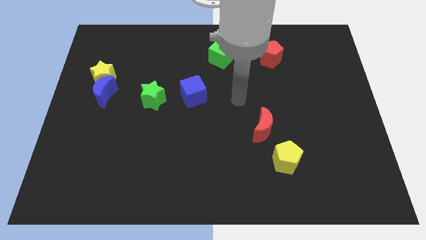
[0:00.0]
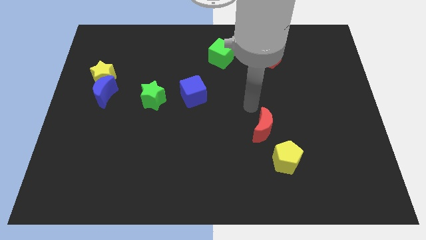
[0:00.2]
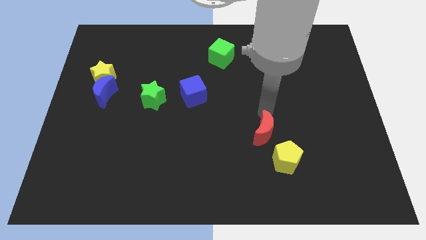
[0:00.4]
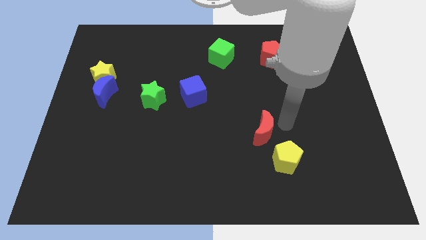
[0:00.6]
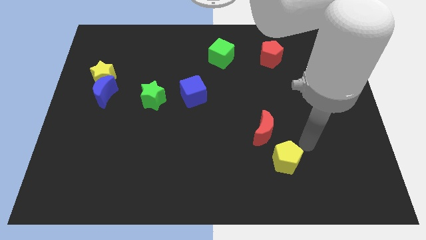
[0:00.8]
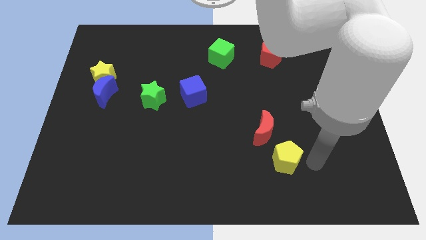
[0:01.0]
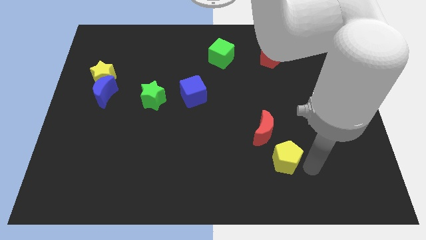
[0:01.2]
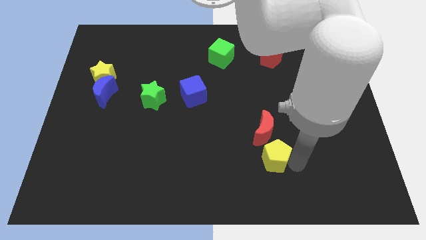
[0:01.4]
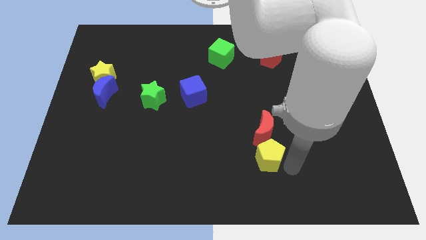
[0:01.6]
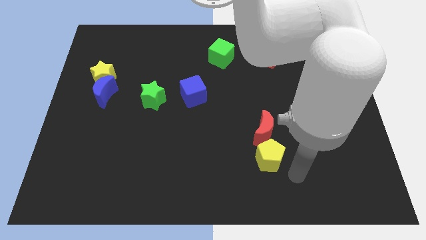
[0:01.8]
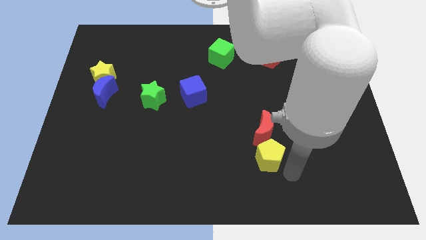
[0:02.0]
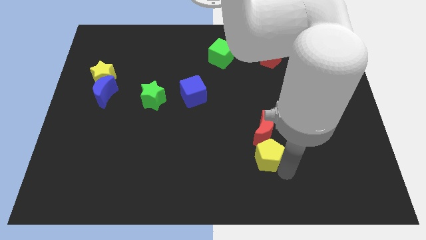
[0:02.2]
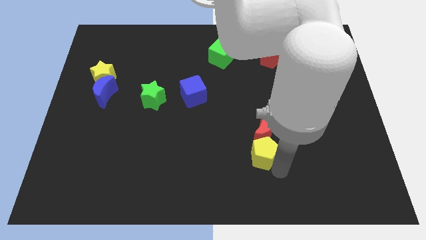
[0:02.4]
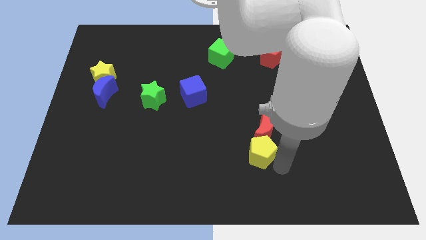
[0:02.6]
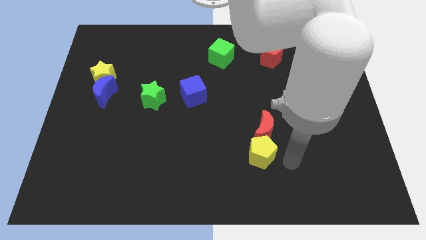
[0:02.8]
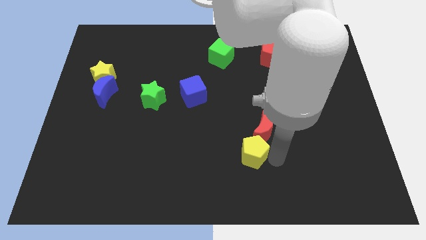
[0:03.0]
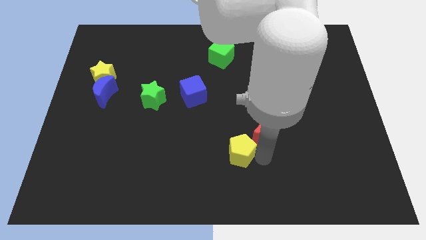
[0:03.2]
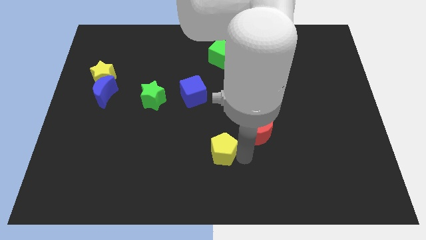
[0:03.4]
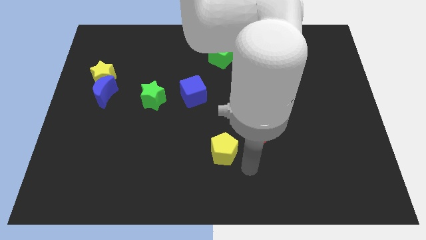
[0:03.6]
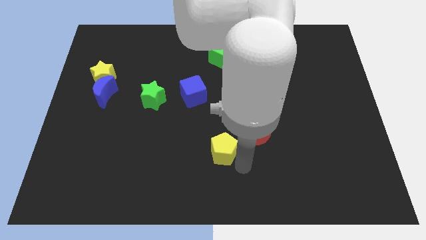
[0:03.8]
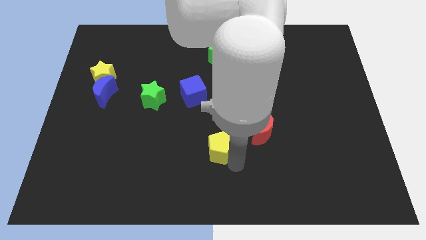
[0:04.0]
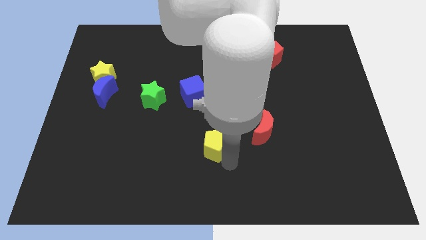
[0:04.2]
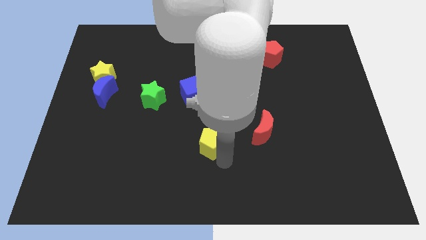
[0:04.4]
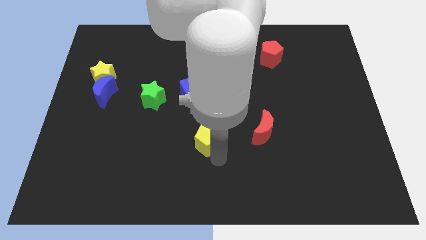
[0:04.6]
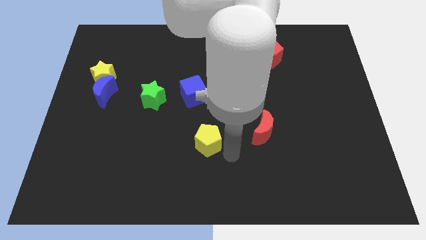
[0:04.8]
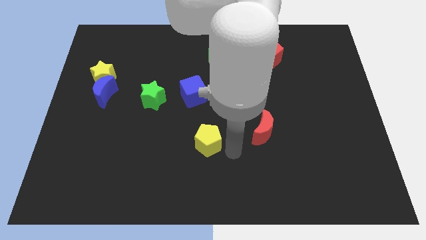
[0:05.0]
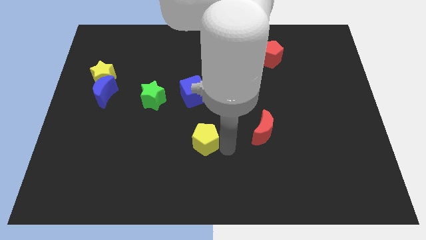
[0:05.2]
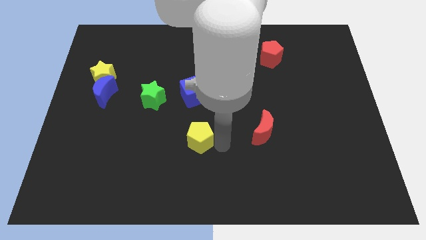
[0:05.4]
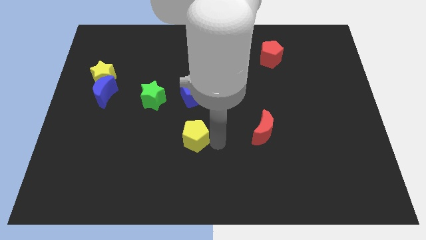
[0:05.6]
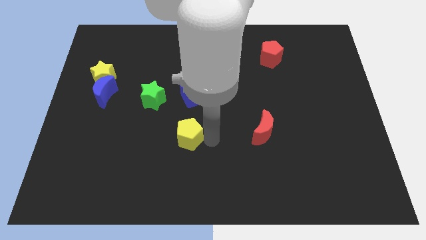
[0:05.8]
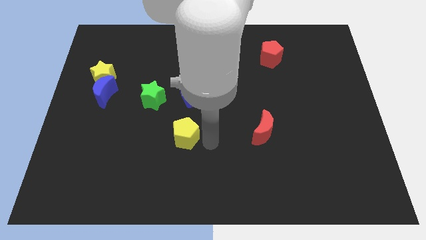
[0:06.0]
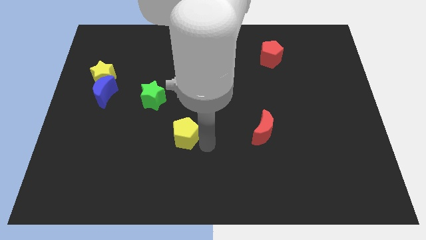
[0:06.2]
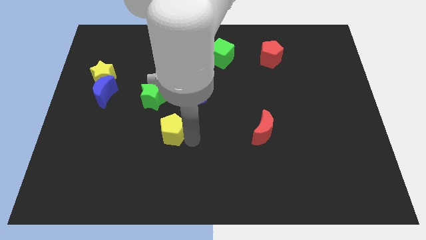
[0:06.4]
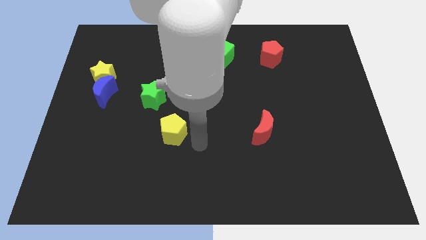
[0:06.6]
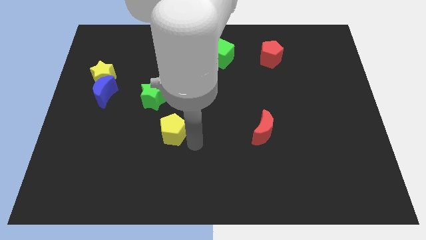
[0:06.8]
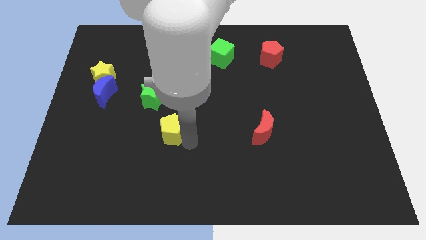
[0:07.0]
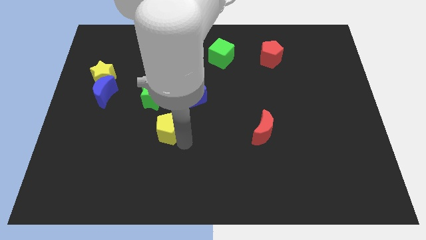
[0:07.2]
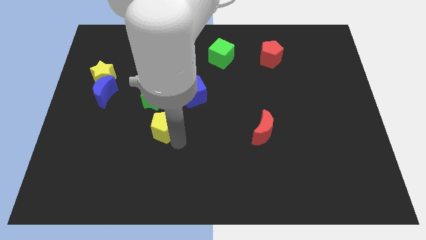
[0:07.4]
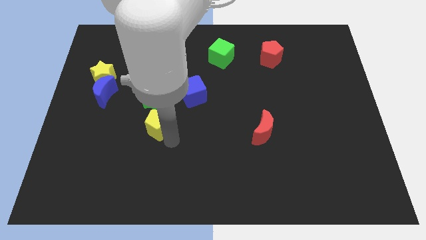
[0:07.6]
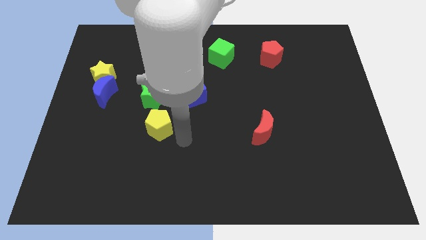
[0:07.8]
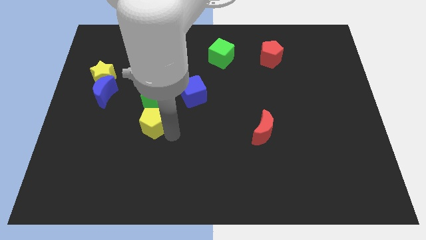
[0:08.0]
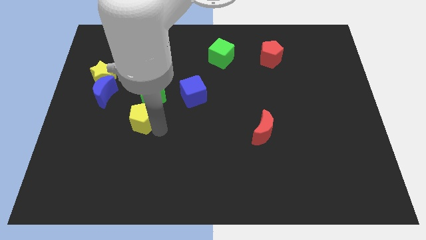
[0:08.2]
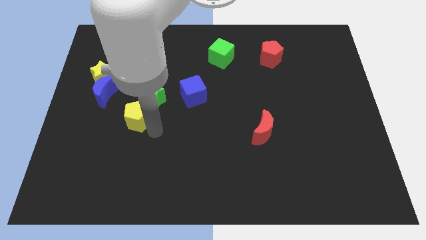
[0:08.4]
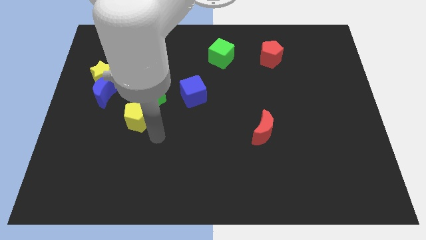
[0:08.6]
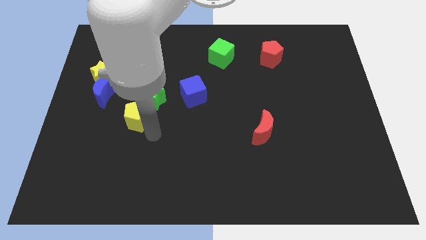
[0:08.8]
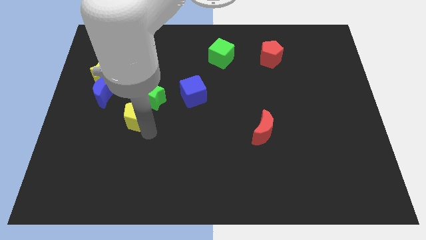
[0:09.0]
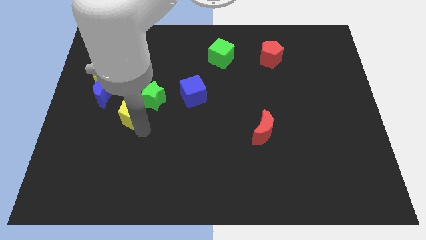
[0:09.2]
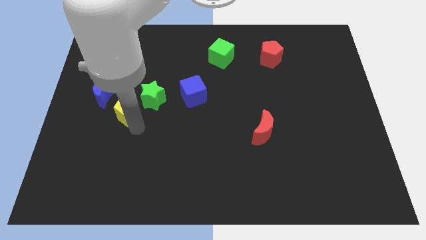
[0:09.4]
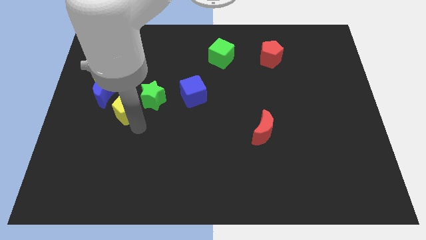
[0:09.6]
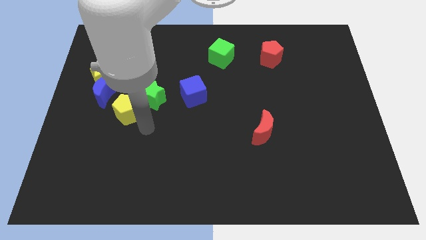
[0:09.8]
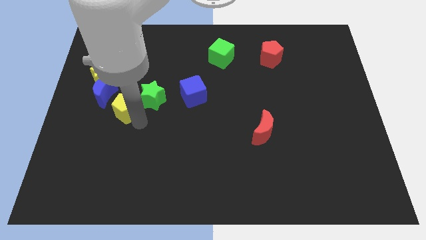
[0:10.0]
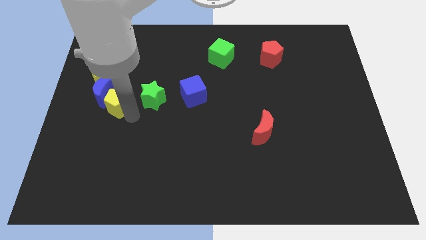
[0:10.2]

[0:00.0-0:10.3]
put the yellow pentagon close to the blue moon

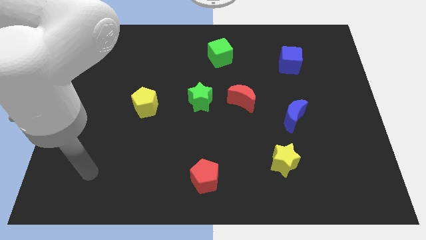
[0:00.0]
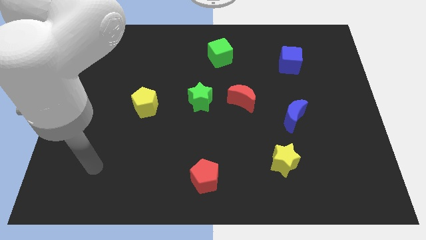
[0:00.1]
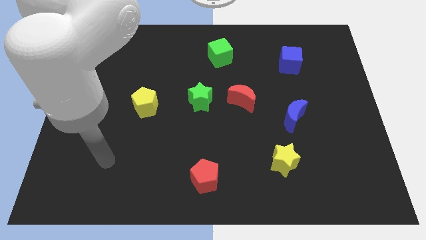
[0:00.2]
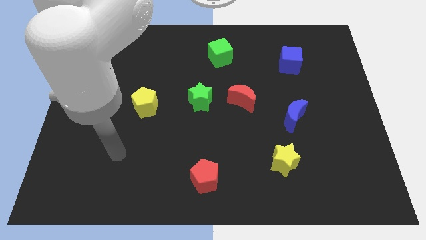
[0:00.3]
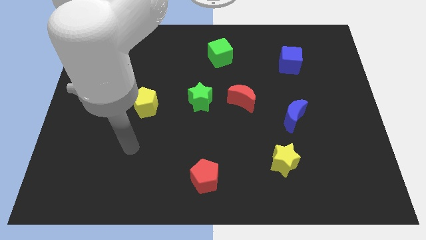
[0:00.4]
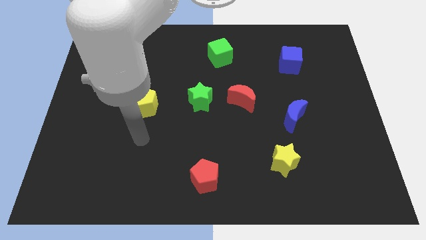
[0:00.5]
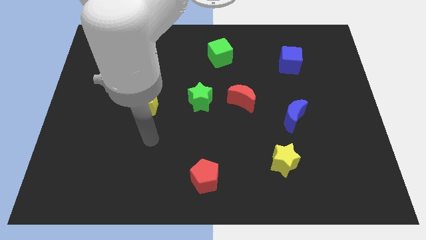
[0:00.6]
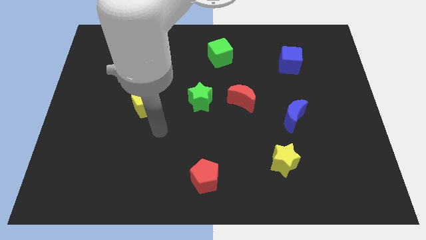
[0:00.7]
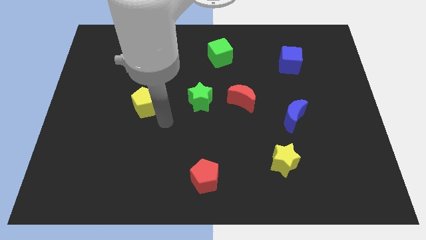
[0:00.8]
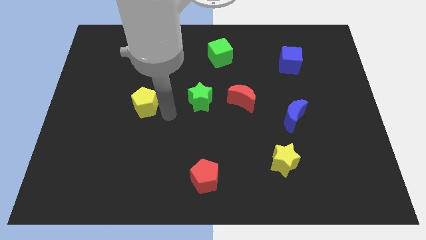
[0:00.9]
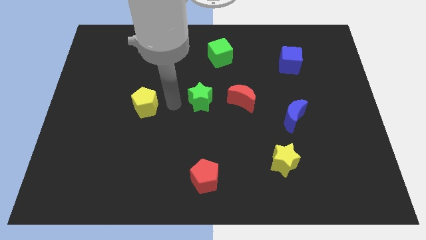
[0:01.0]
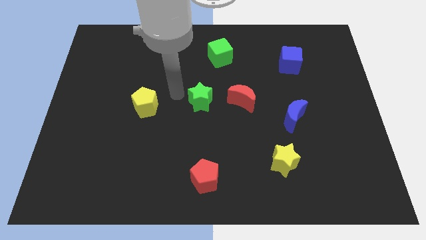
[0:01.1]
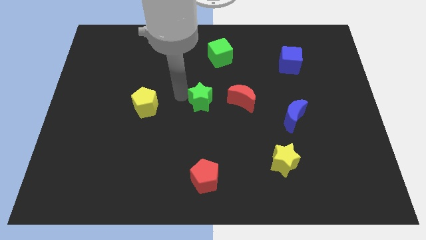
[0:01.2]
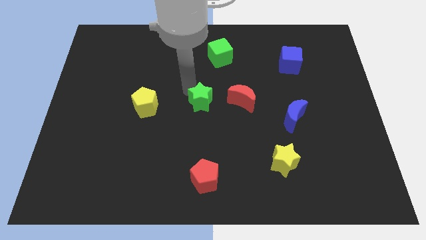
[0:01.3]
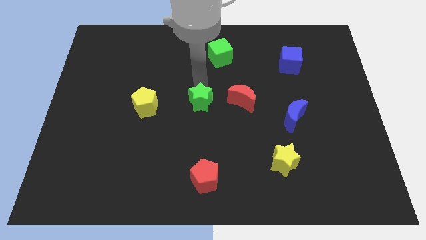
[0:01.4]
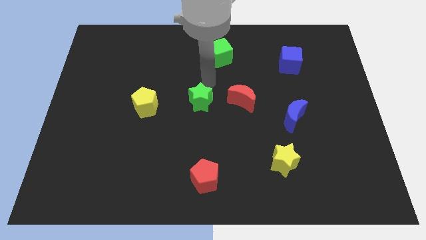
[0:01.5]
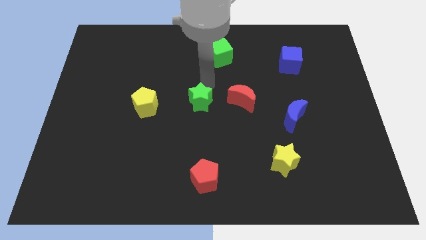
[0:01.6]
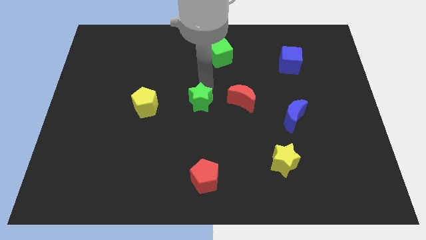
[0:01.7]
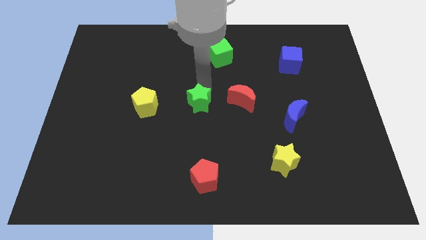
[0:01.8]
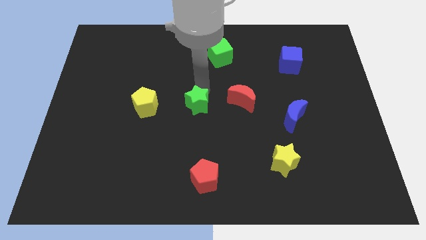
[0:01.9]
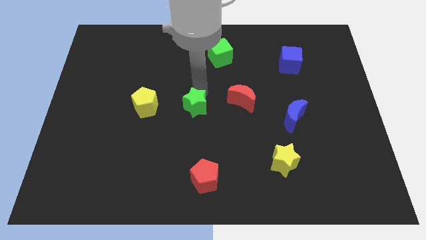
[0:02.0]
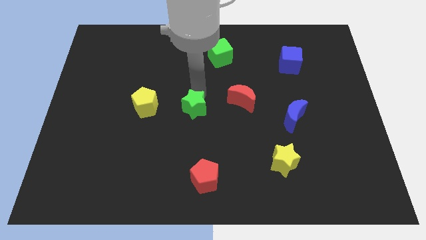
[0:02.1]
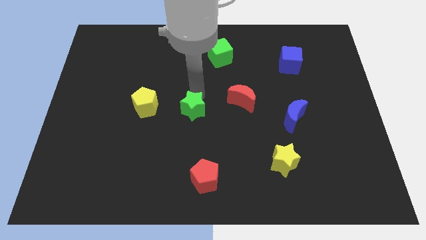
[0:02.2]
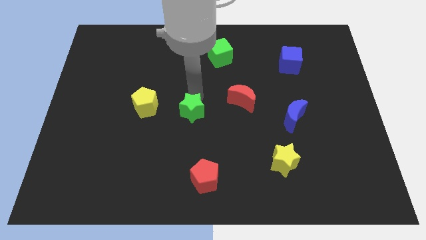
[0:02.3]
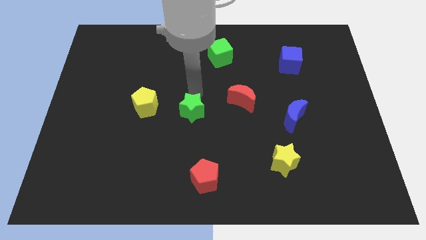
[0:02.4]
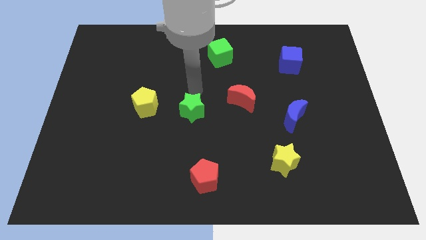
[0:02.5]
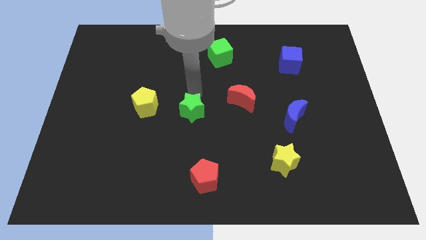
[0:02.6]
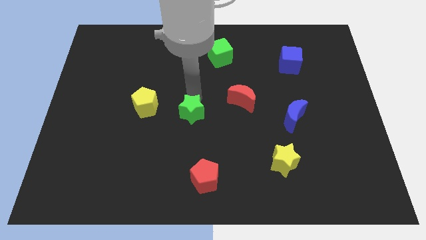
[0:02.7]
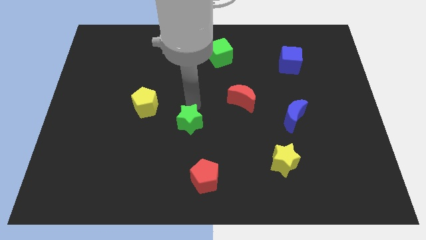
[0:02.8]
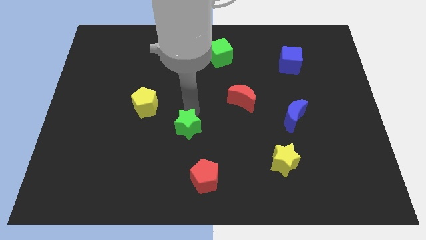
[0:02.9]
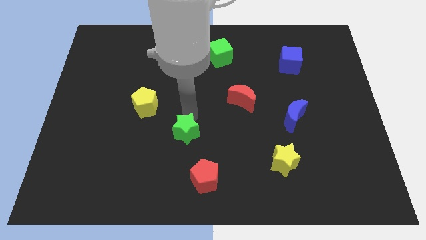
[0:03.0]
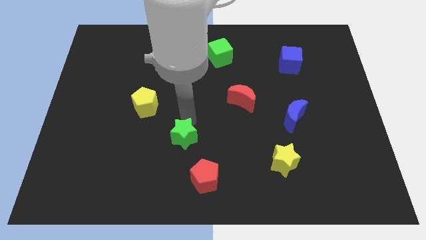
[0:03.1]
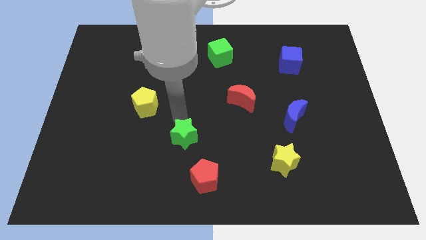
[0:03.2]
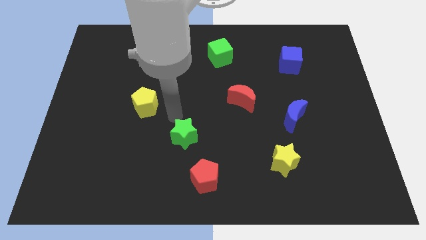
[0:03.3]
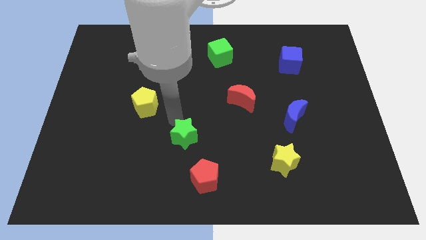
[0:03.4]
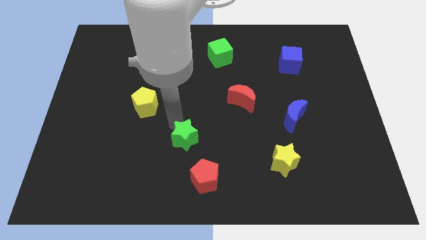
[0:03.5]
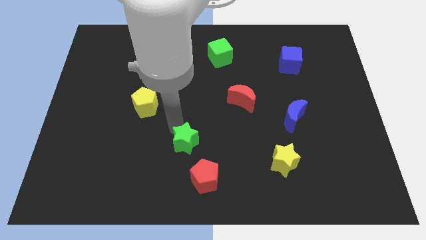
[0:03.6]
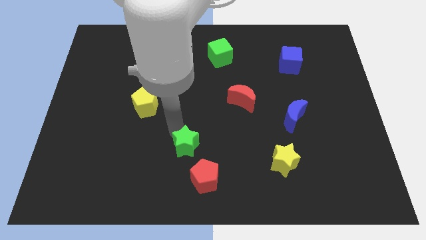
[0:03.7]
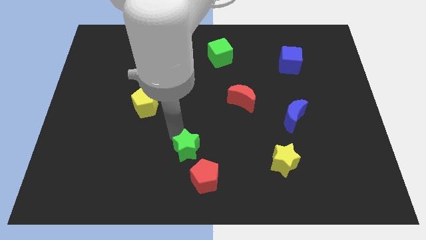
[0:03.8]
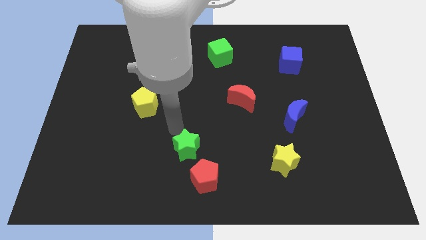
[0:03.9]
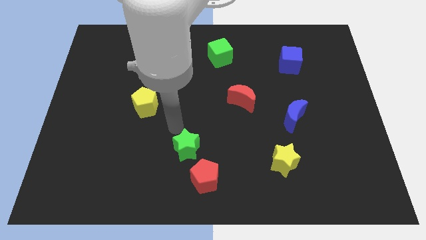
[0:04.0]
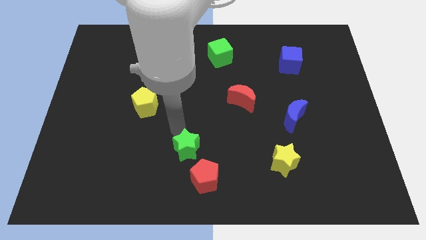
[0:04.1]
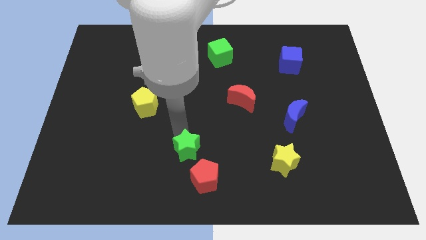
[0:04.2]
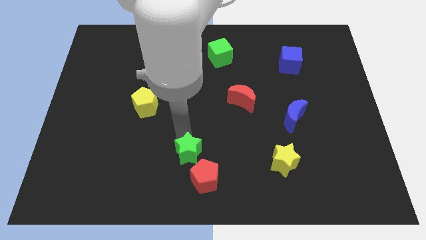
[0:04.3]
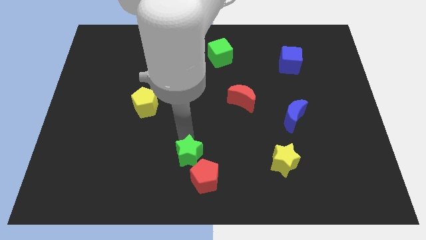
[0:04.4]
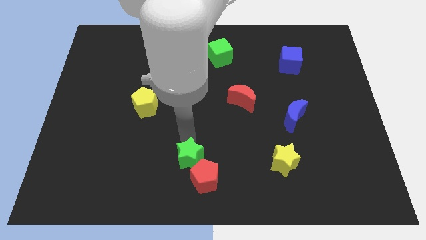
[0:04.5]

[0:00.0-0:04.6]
move the green star next to the red pentagon
